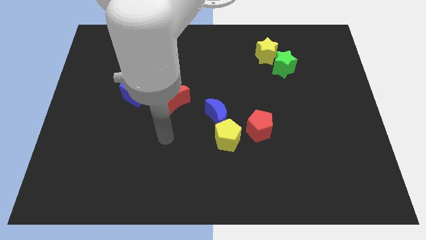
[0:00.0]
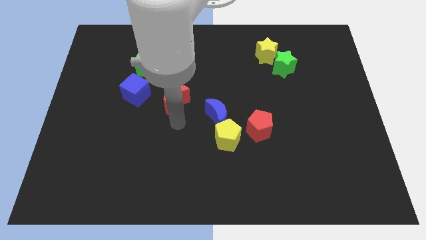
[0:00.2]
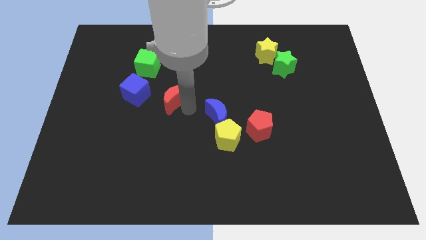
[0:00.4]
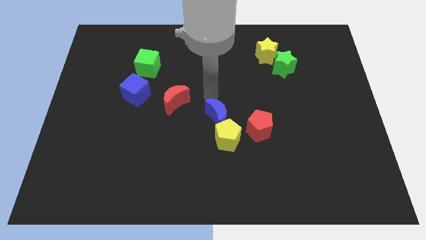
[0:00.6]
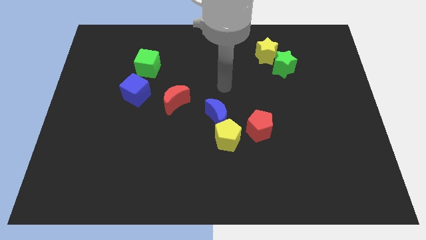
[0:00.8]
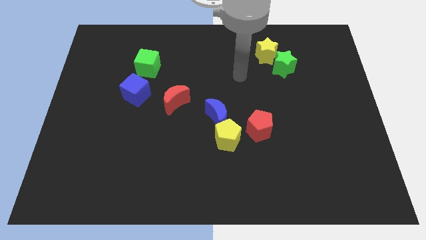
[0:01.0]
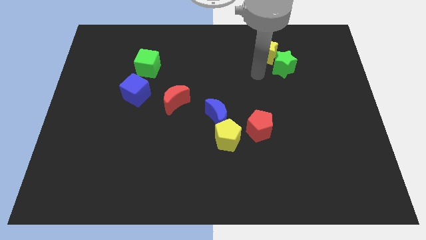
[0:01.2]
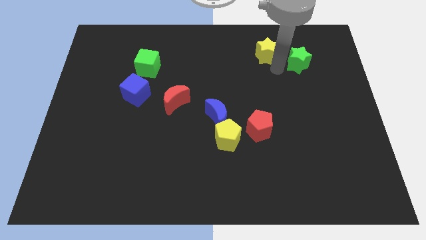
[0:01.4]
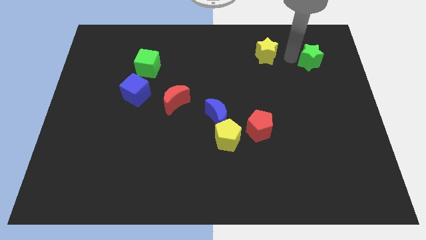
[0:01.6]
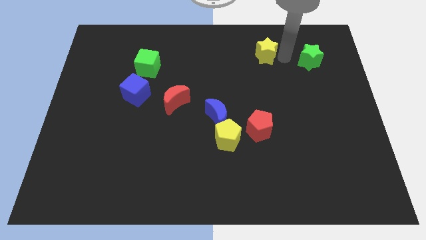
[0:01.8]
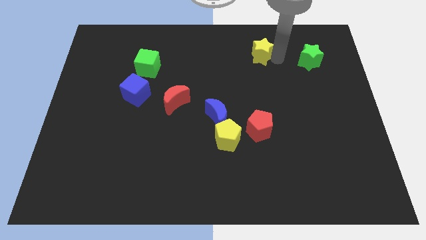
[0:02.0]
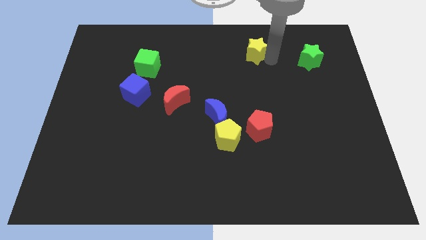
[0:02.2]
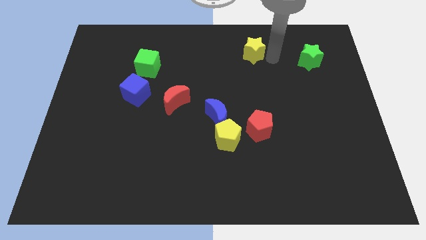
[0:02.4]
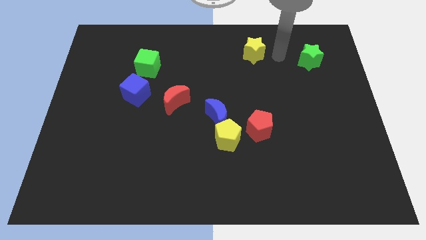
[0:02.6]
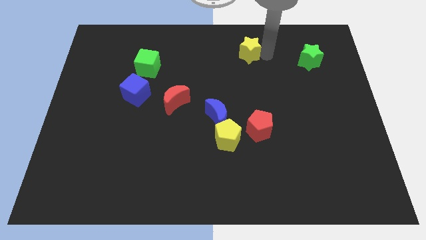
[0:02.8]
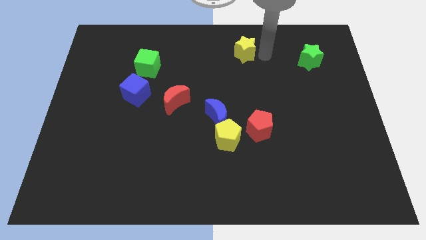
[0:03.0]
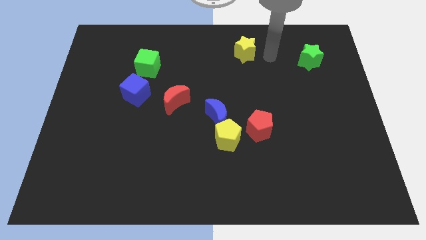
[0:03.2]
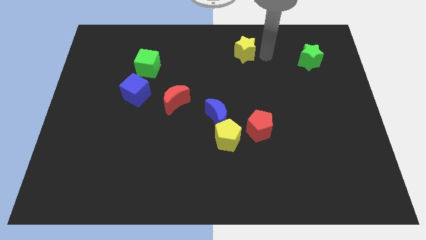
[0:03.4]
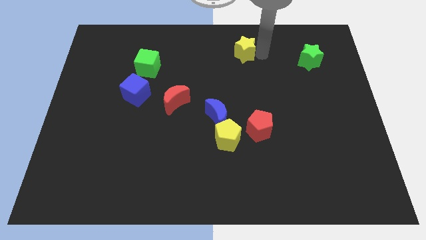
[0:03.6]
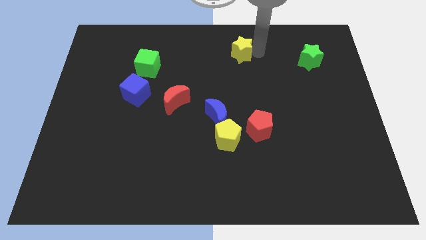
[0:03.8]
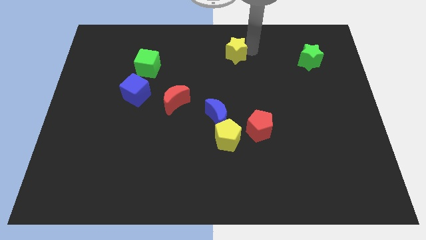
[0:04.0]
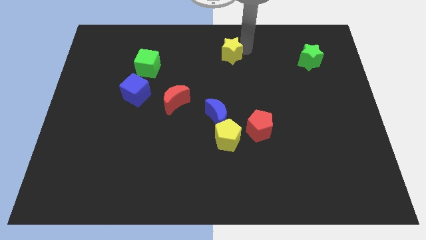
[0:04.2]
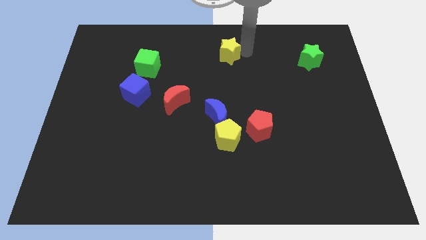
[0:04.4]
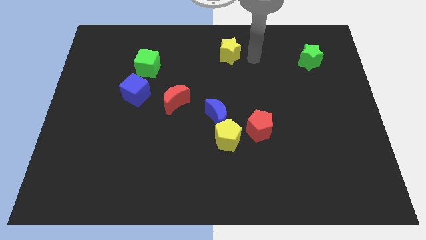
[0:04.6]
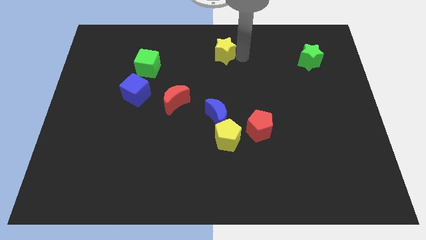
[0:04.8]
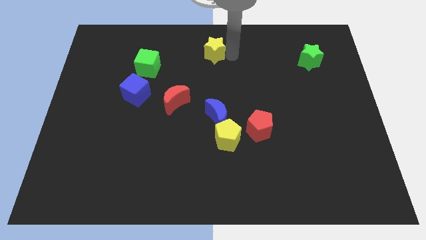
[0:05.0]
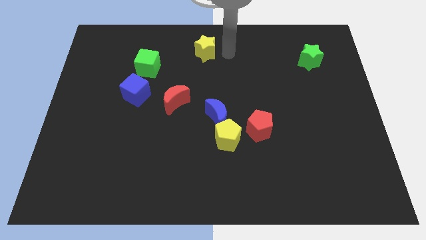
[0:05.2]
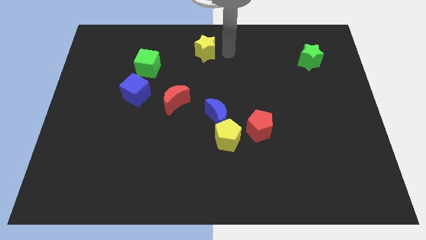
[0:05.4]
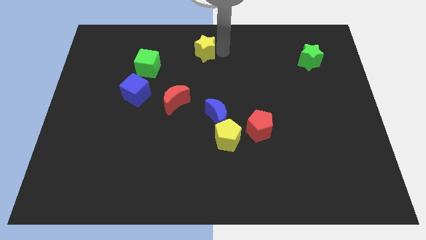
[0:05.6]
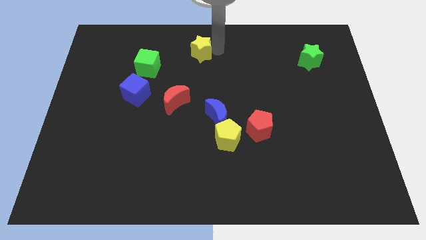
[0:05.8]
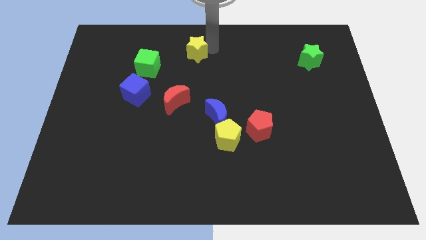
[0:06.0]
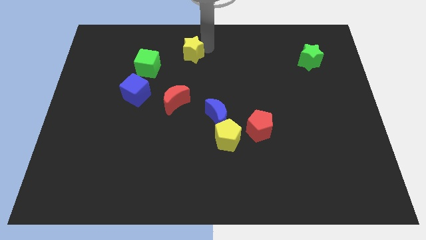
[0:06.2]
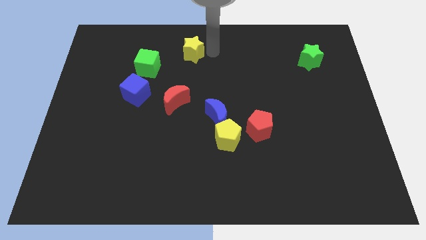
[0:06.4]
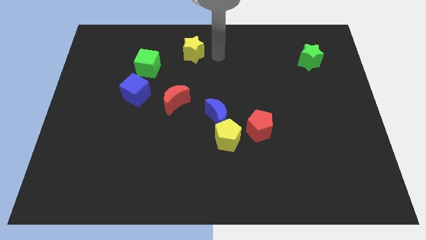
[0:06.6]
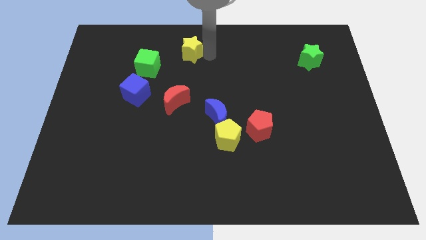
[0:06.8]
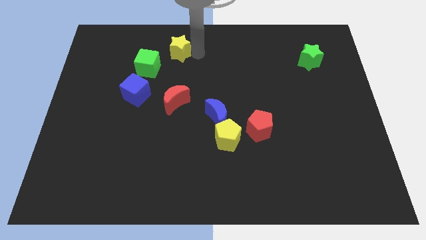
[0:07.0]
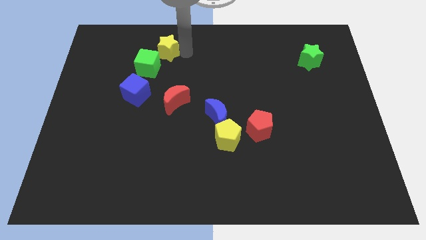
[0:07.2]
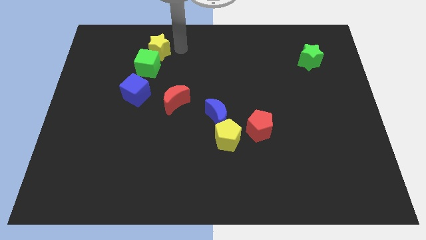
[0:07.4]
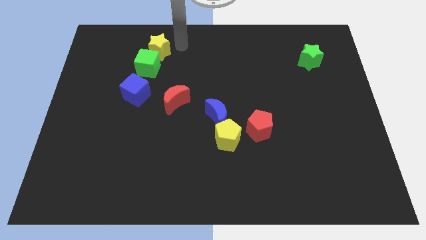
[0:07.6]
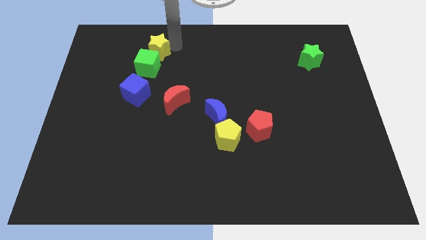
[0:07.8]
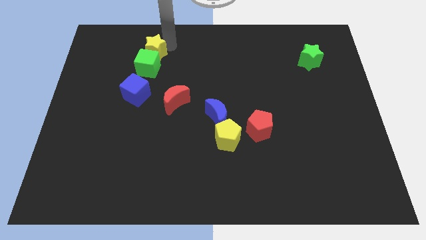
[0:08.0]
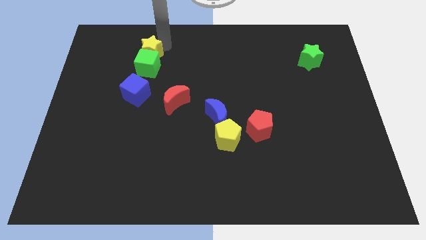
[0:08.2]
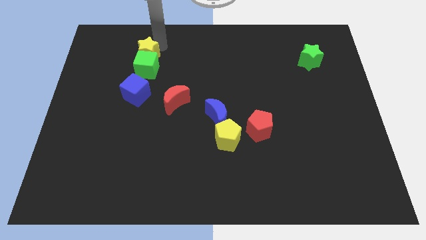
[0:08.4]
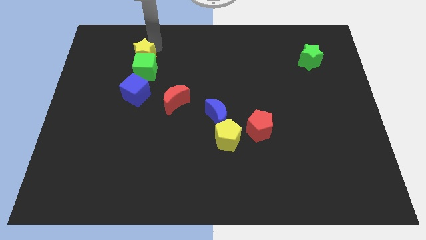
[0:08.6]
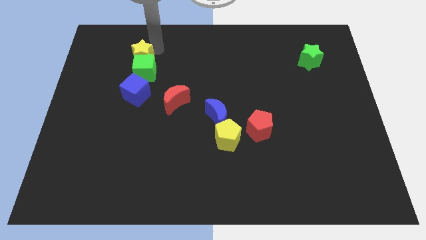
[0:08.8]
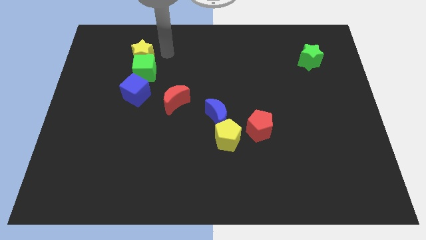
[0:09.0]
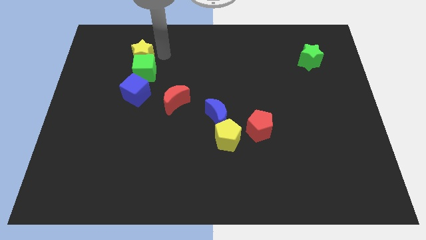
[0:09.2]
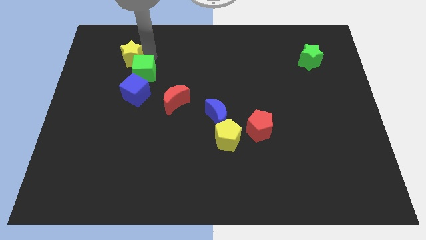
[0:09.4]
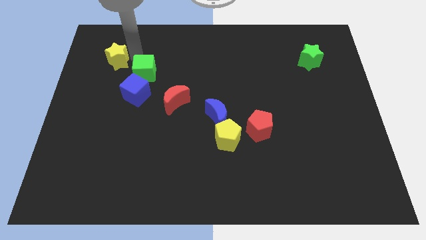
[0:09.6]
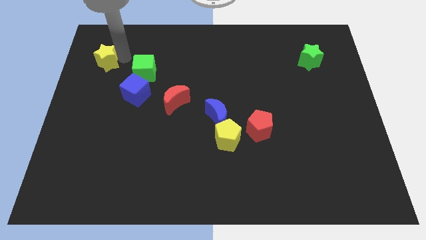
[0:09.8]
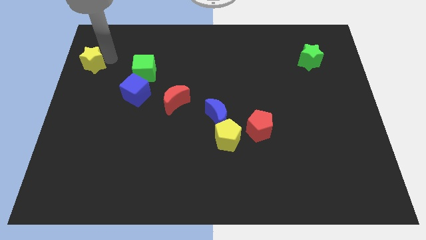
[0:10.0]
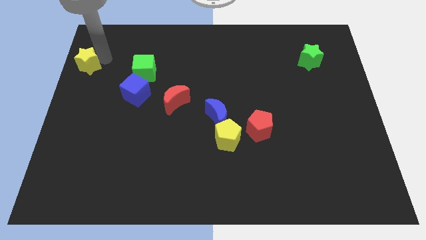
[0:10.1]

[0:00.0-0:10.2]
push the yellow star to the left side of the board

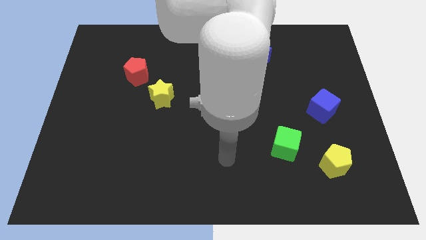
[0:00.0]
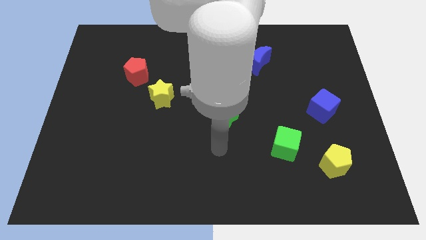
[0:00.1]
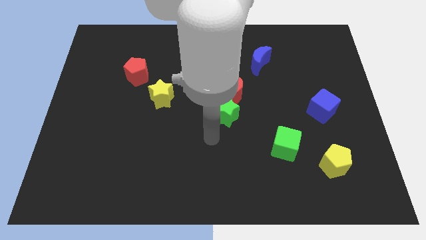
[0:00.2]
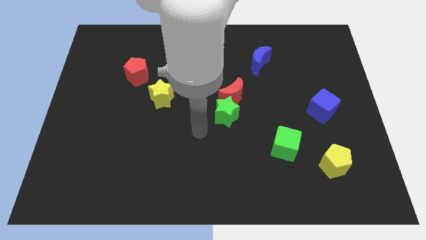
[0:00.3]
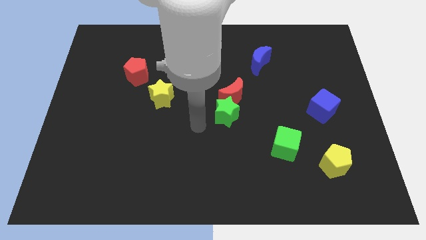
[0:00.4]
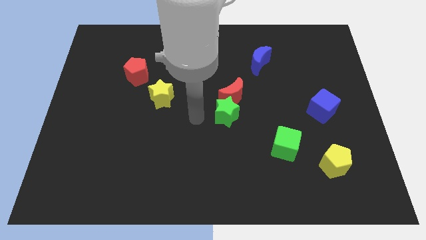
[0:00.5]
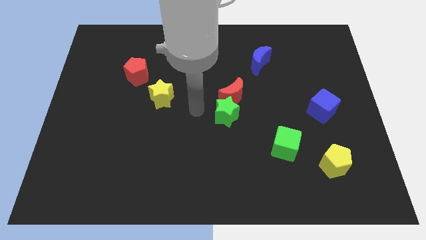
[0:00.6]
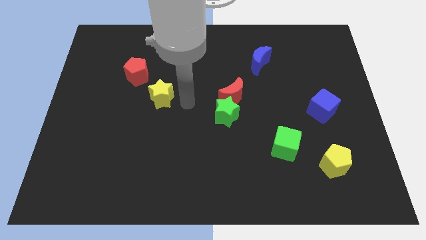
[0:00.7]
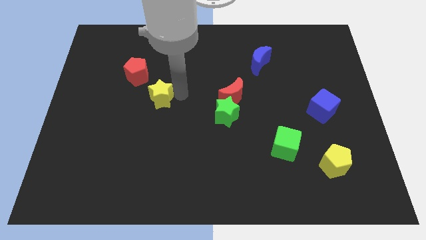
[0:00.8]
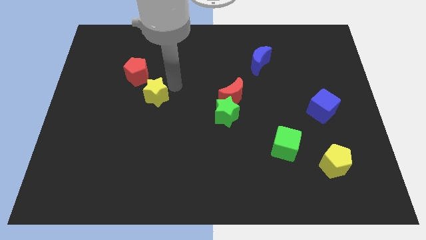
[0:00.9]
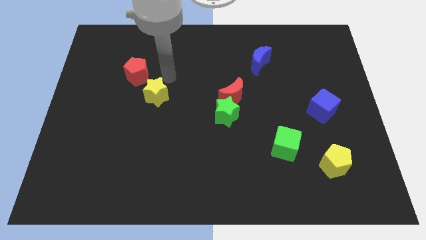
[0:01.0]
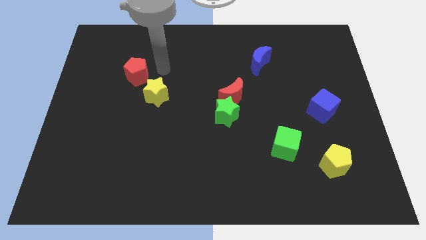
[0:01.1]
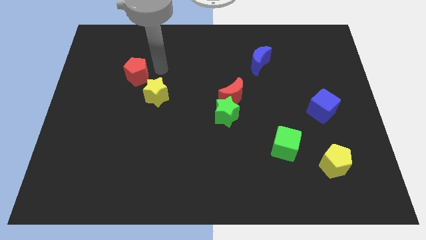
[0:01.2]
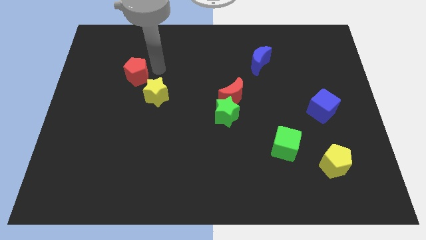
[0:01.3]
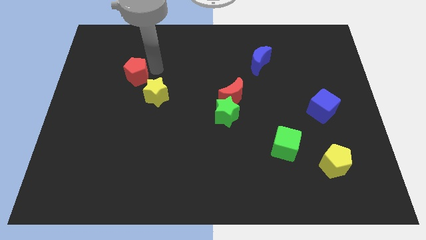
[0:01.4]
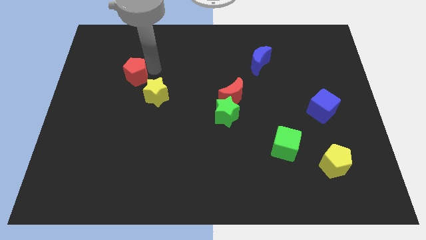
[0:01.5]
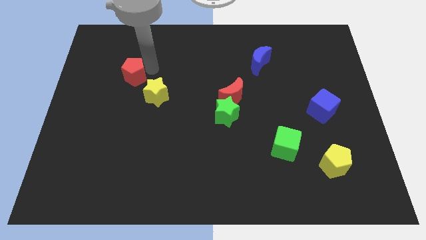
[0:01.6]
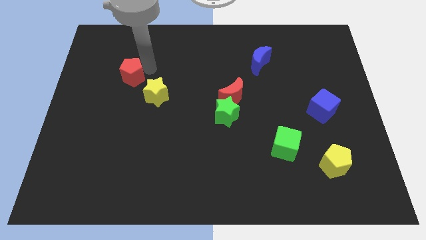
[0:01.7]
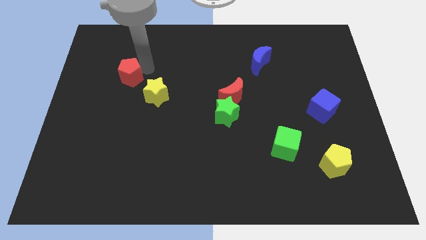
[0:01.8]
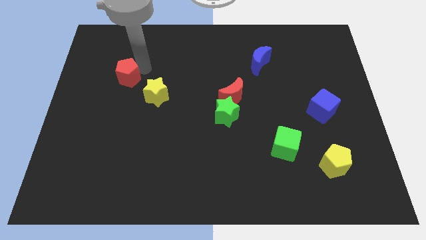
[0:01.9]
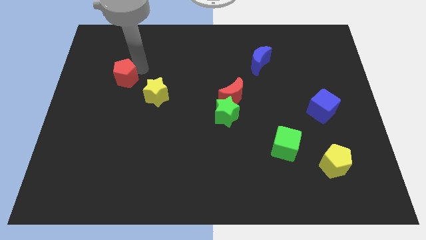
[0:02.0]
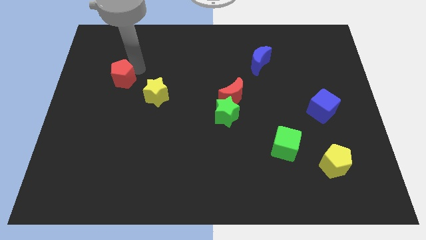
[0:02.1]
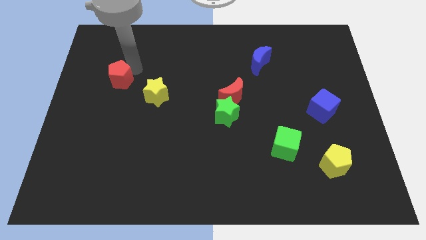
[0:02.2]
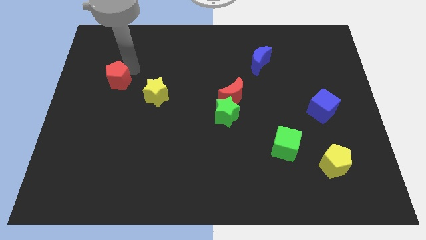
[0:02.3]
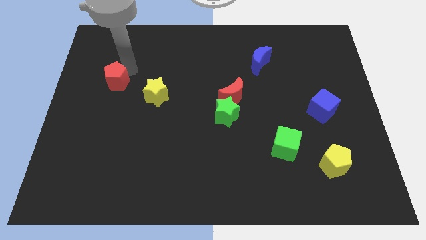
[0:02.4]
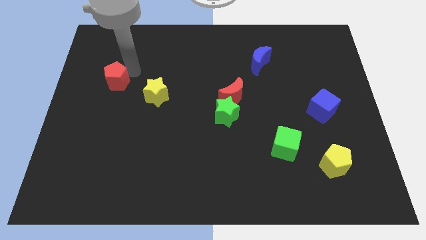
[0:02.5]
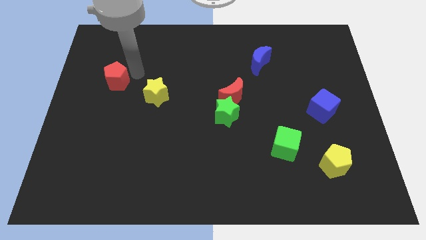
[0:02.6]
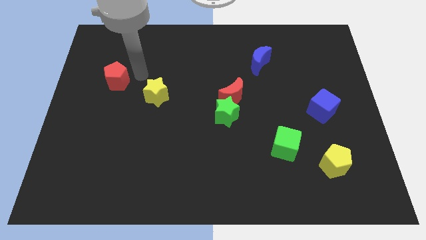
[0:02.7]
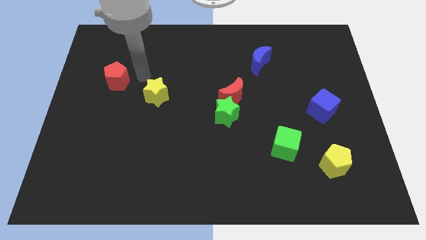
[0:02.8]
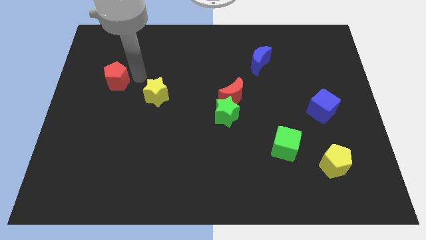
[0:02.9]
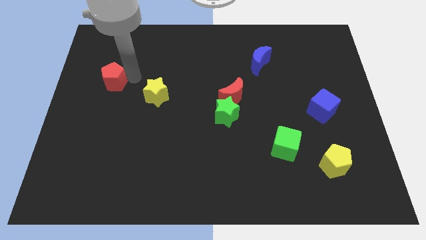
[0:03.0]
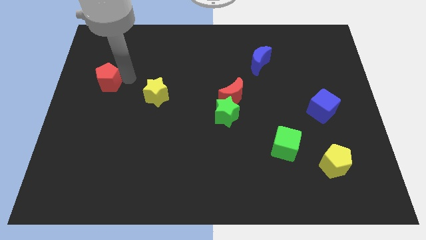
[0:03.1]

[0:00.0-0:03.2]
move the red pentagon to the left side
